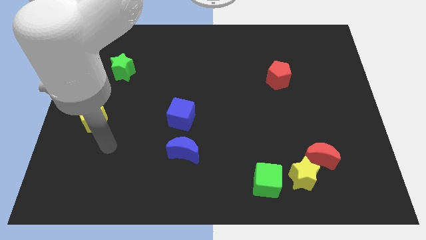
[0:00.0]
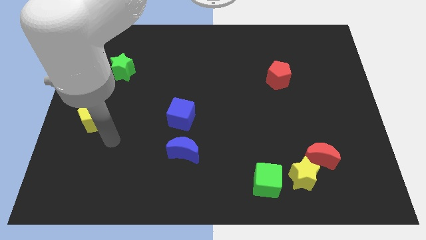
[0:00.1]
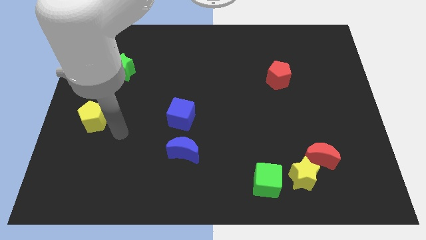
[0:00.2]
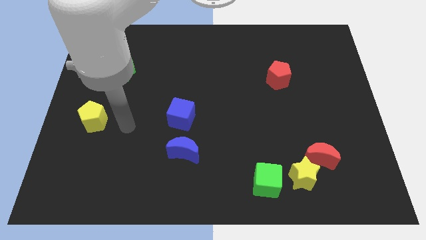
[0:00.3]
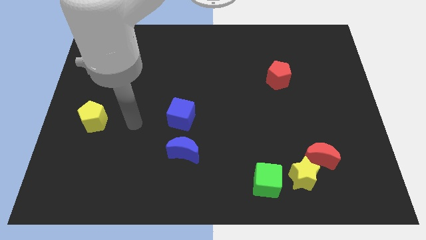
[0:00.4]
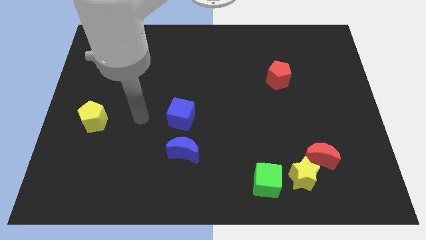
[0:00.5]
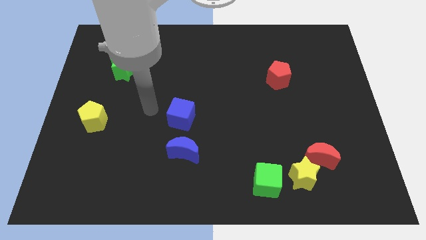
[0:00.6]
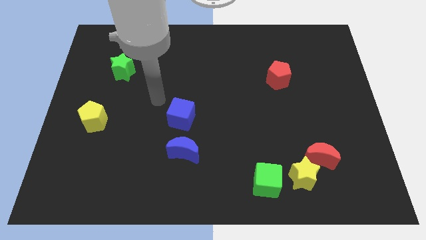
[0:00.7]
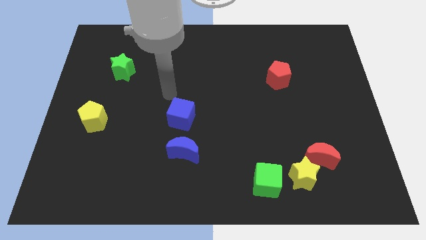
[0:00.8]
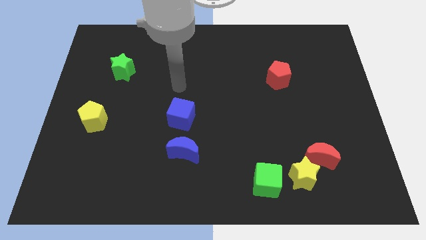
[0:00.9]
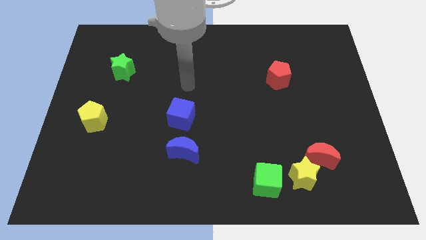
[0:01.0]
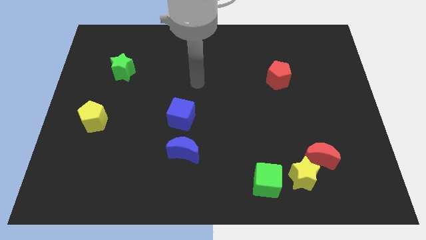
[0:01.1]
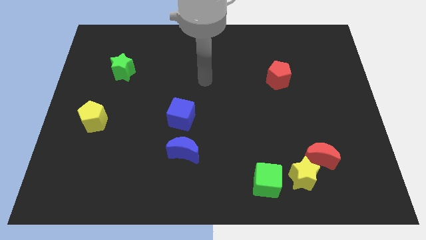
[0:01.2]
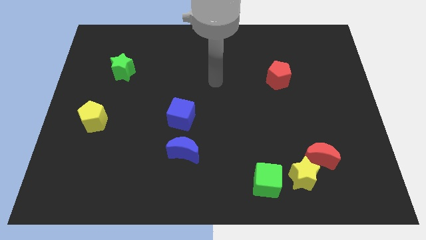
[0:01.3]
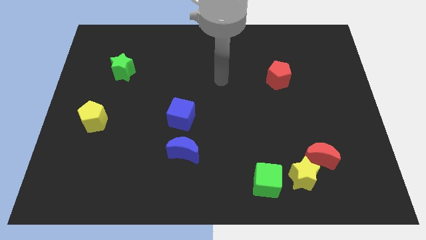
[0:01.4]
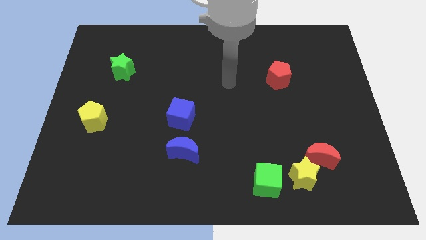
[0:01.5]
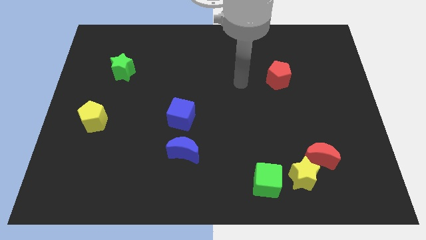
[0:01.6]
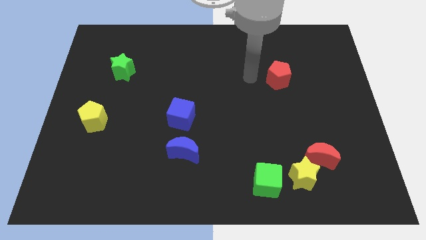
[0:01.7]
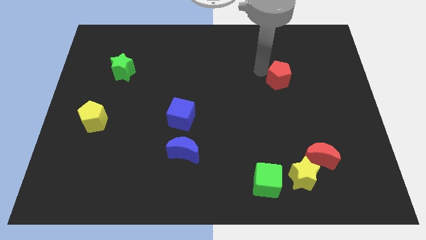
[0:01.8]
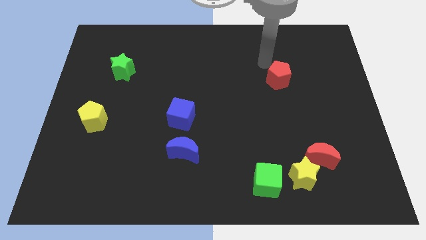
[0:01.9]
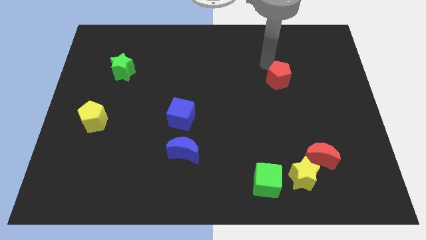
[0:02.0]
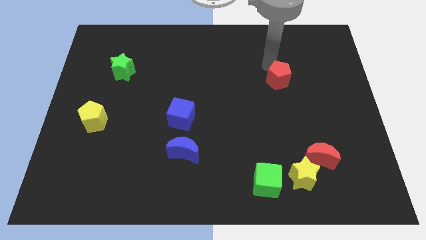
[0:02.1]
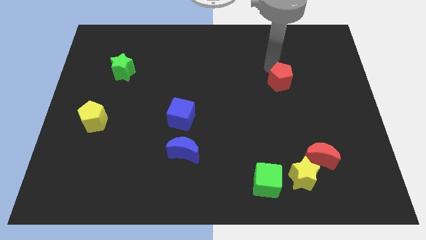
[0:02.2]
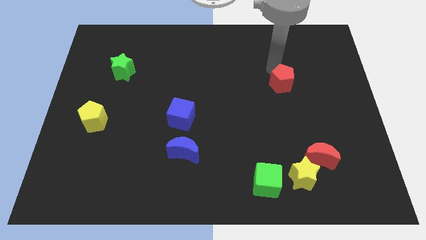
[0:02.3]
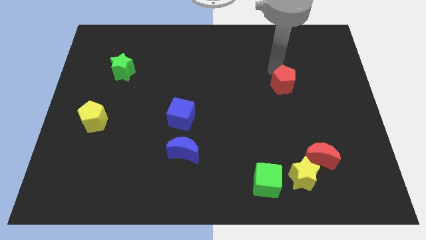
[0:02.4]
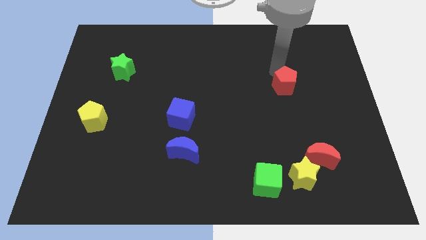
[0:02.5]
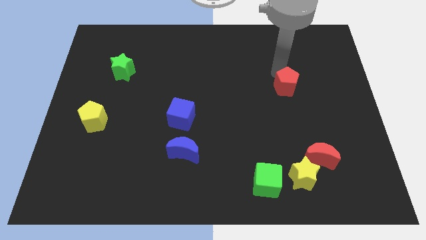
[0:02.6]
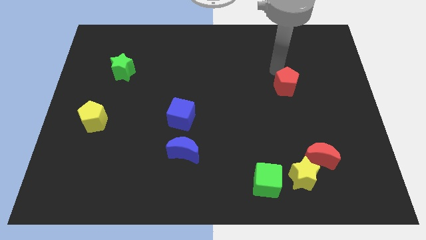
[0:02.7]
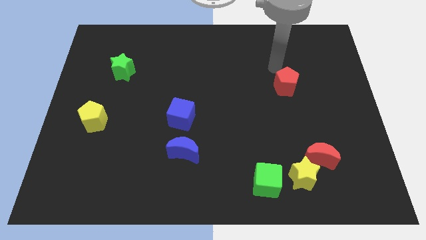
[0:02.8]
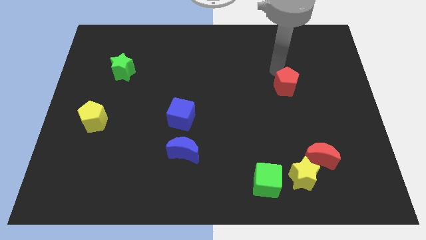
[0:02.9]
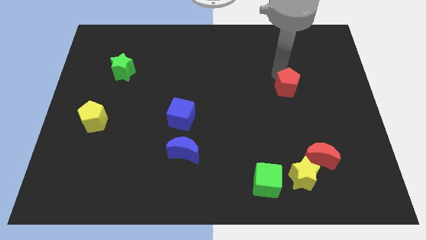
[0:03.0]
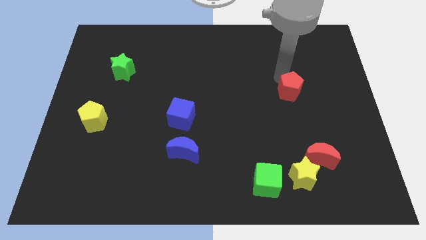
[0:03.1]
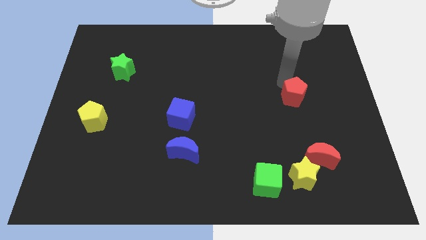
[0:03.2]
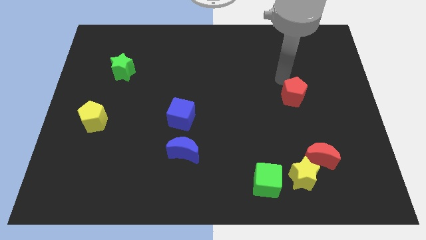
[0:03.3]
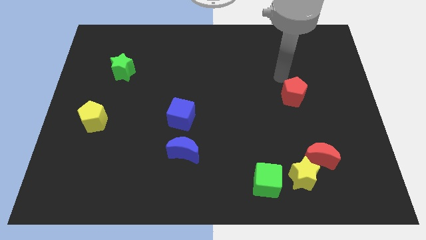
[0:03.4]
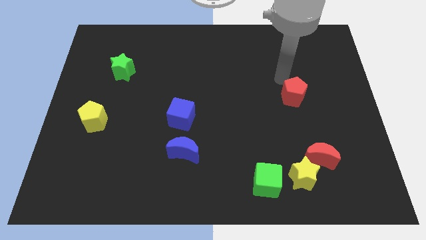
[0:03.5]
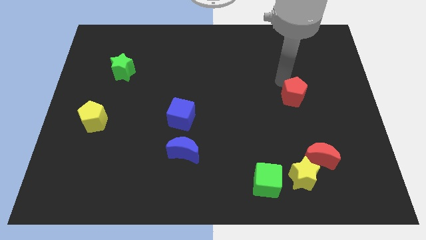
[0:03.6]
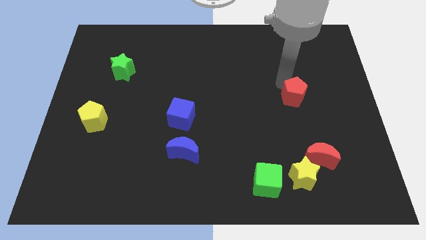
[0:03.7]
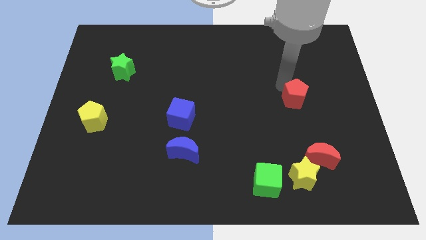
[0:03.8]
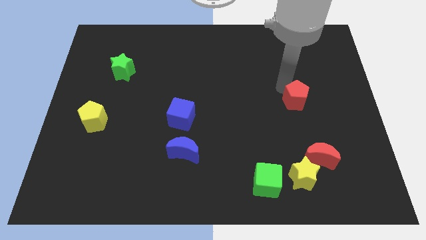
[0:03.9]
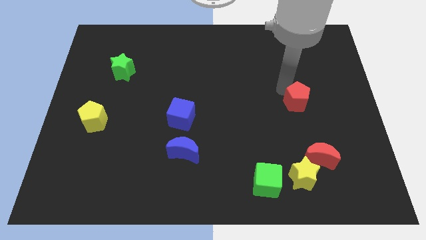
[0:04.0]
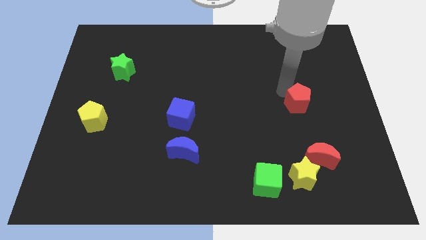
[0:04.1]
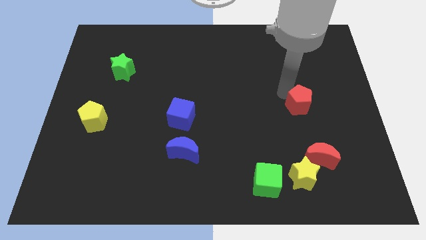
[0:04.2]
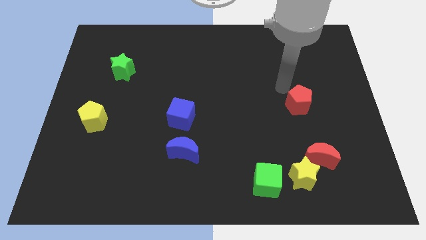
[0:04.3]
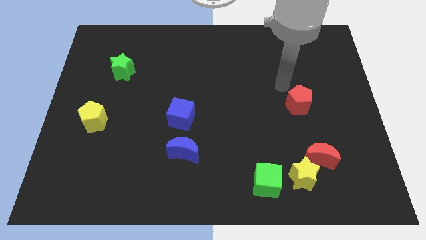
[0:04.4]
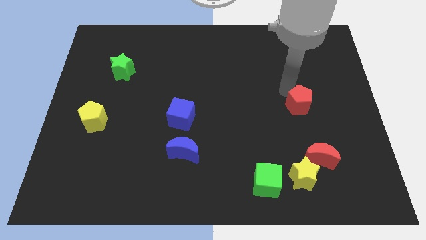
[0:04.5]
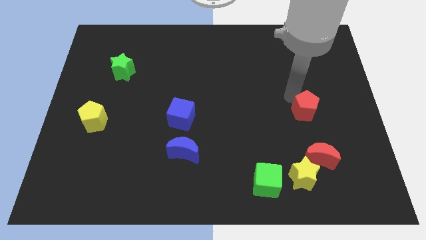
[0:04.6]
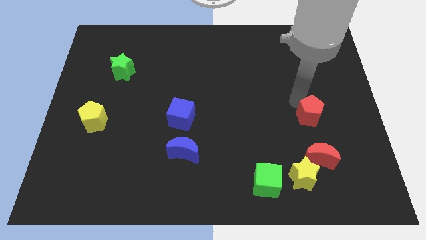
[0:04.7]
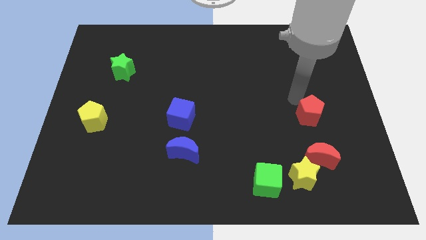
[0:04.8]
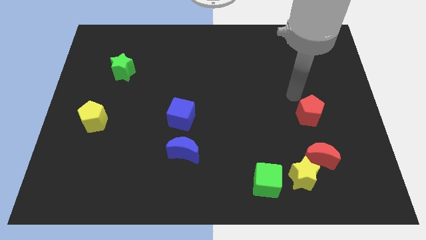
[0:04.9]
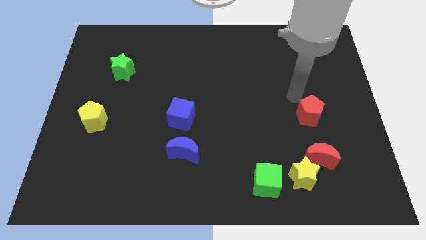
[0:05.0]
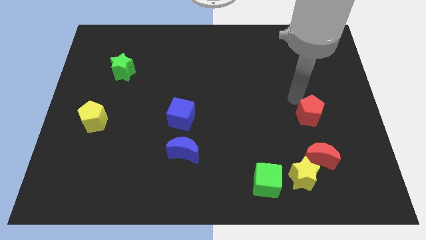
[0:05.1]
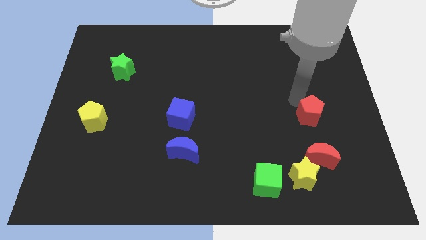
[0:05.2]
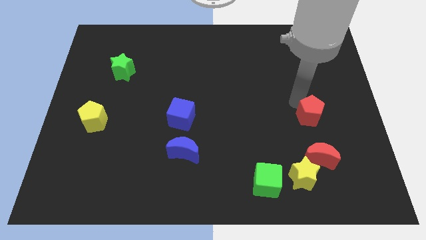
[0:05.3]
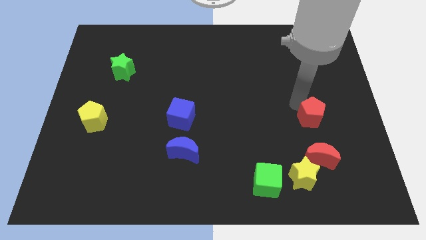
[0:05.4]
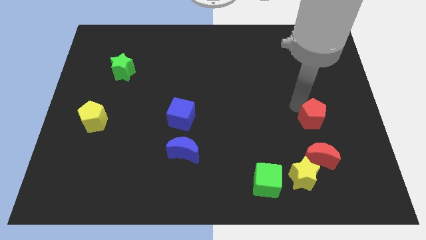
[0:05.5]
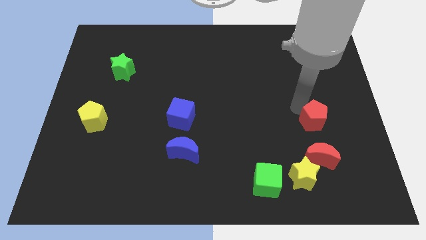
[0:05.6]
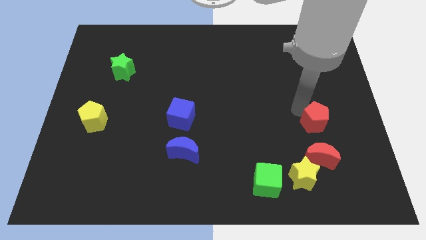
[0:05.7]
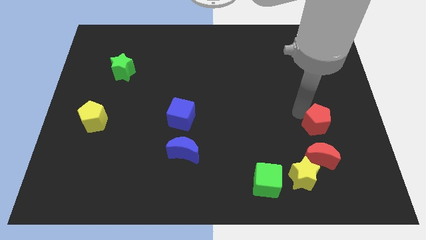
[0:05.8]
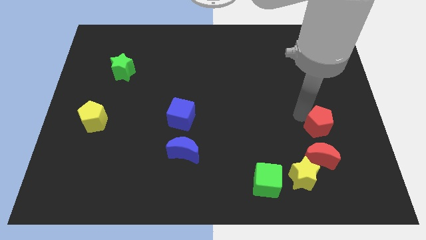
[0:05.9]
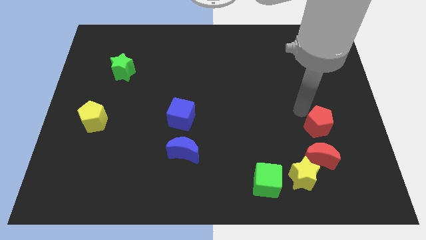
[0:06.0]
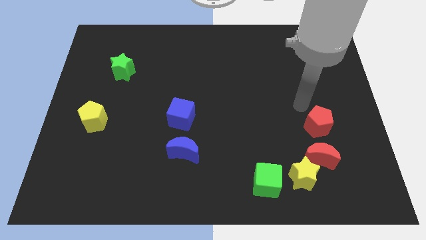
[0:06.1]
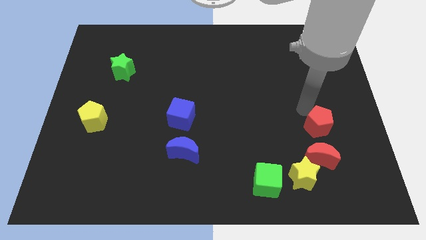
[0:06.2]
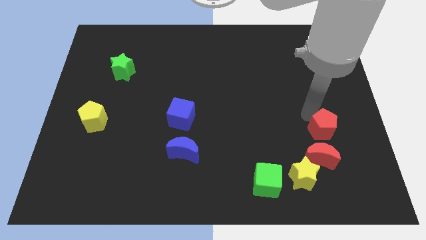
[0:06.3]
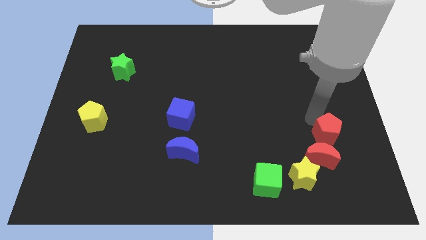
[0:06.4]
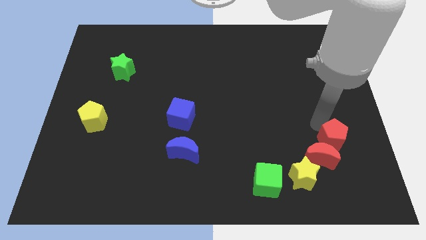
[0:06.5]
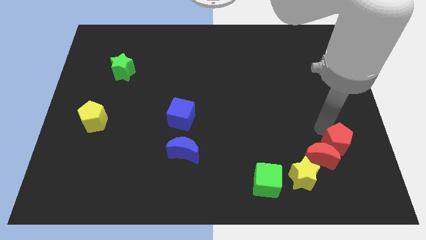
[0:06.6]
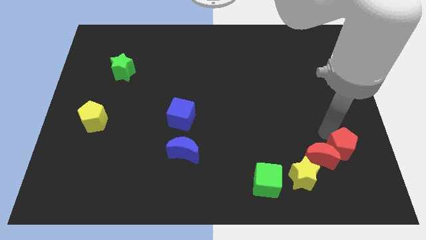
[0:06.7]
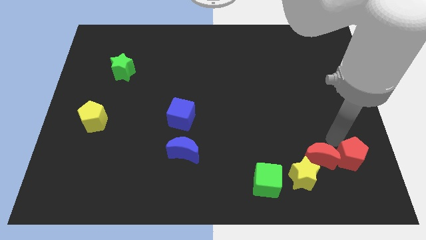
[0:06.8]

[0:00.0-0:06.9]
move the red pentagon to the bottom right side of the red moon
